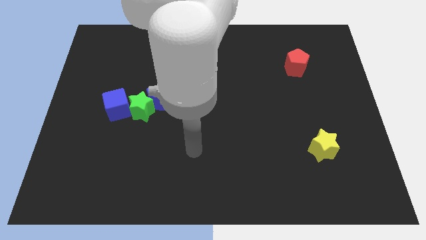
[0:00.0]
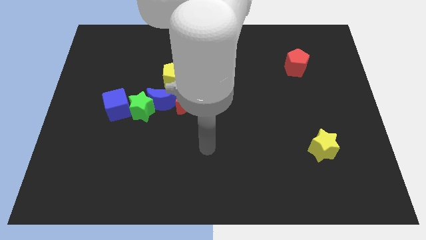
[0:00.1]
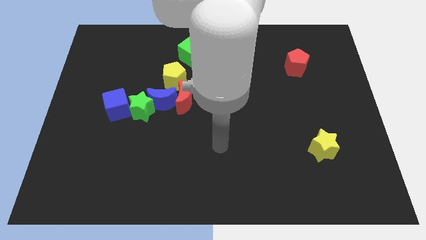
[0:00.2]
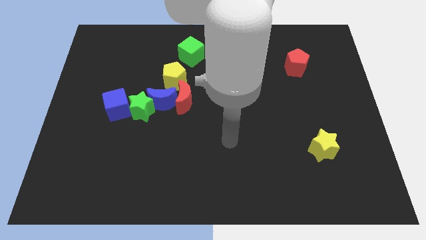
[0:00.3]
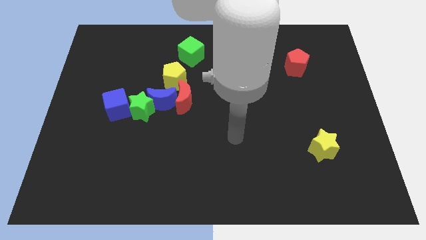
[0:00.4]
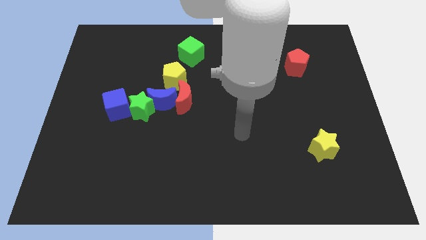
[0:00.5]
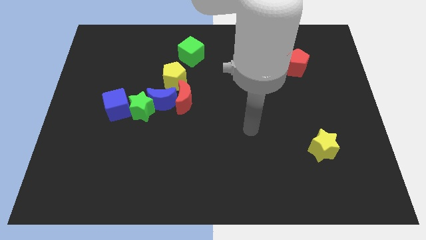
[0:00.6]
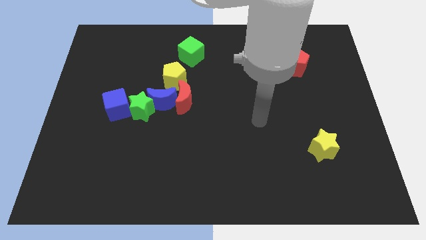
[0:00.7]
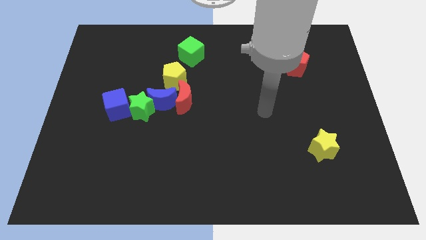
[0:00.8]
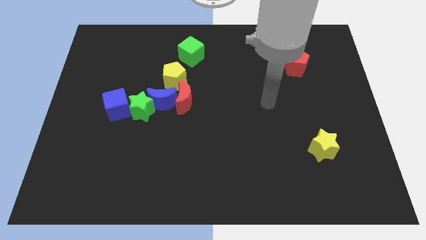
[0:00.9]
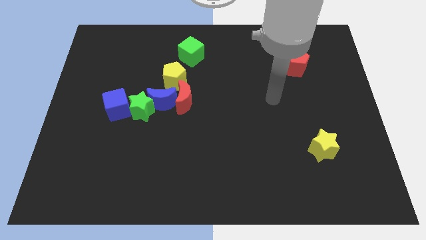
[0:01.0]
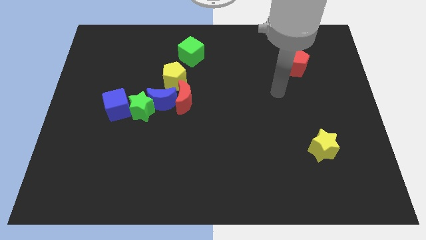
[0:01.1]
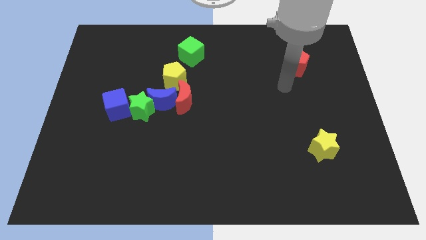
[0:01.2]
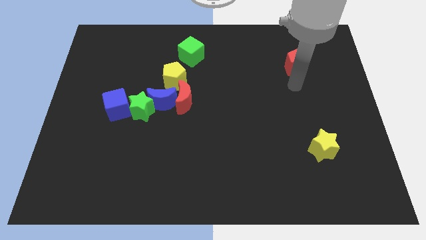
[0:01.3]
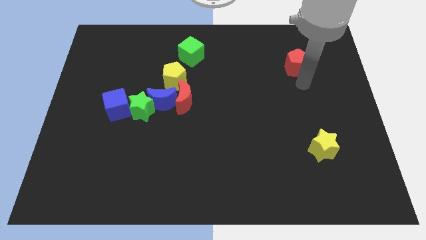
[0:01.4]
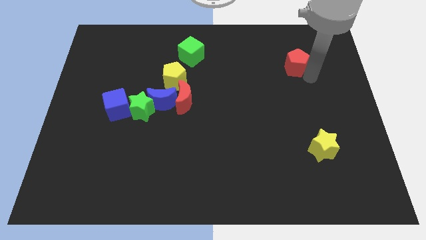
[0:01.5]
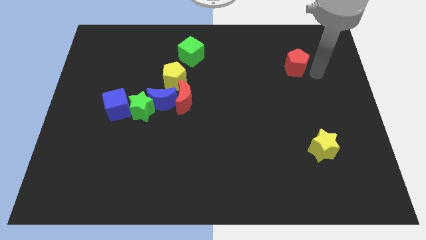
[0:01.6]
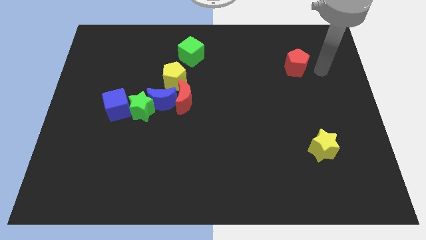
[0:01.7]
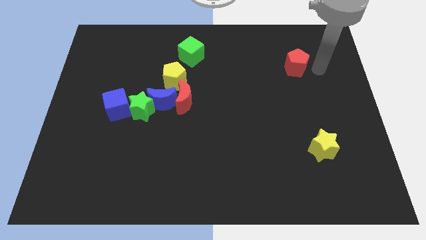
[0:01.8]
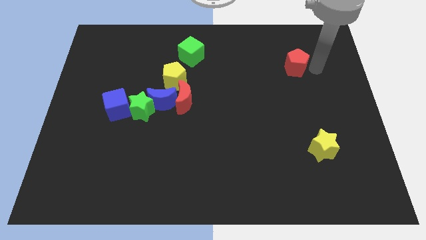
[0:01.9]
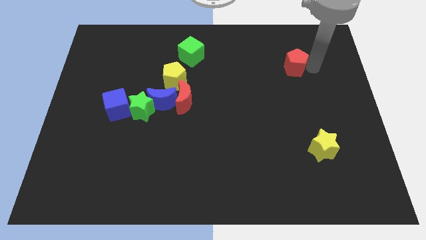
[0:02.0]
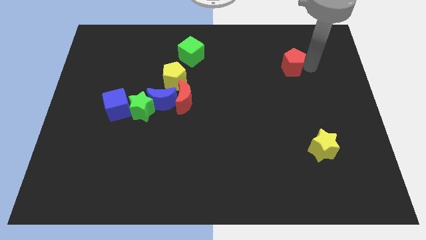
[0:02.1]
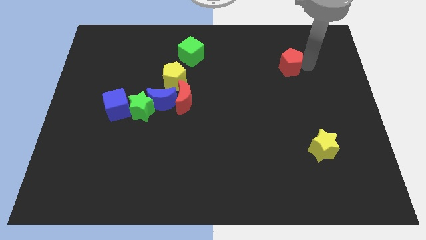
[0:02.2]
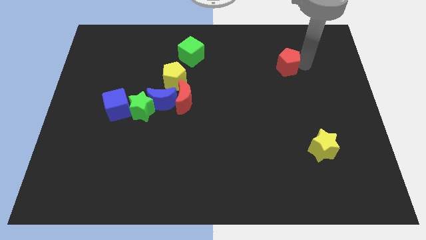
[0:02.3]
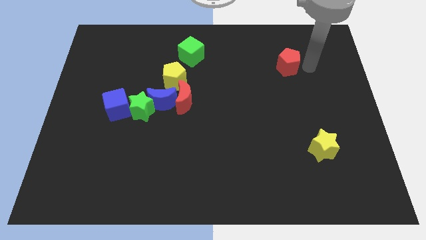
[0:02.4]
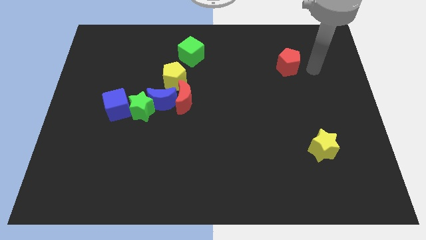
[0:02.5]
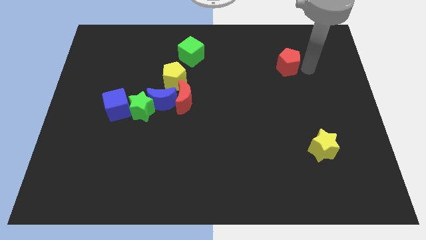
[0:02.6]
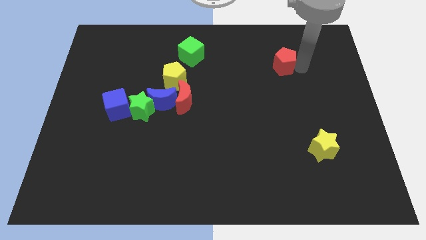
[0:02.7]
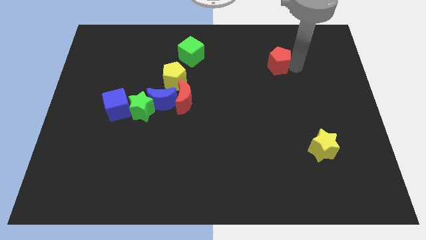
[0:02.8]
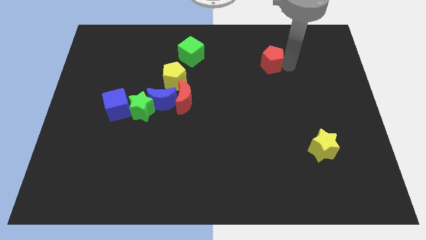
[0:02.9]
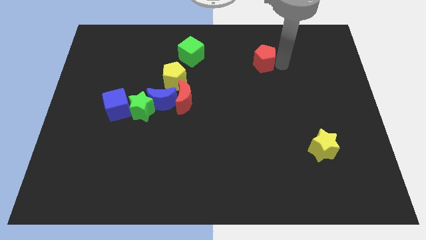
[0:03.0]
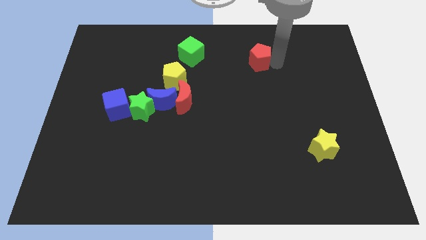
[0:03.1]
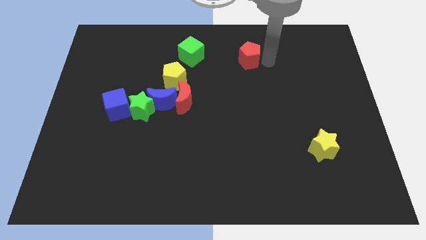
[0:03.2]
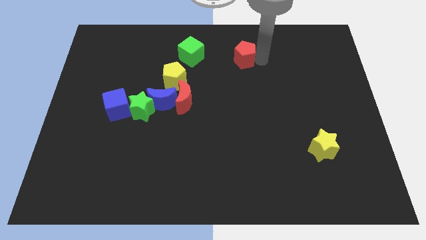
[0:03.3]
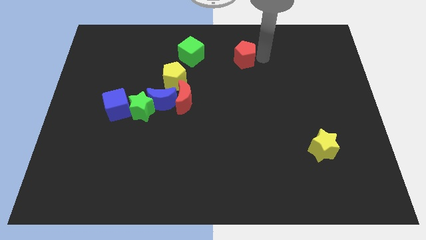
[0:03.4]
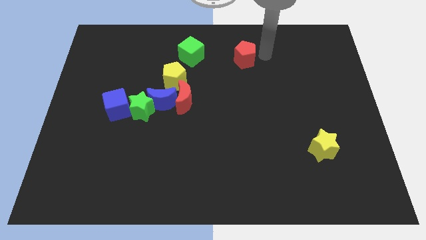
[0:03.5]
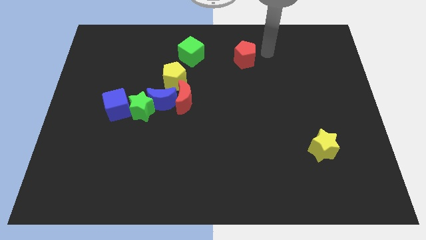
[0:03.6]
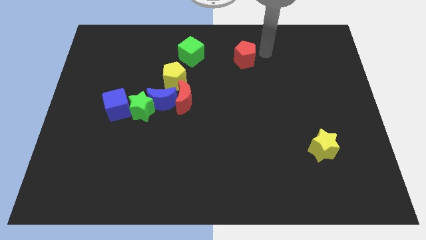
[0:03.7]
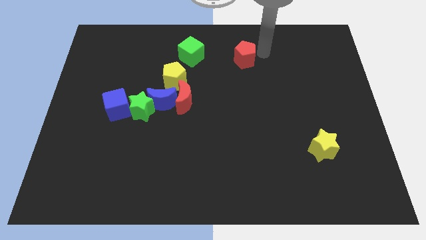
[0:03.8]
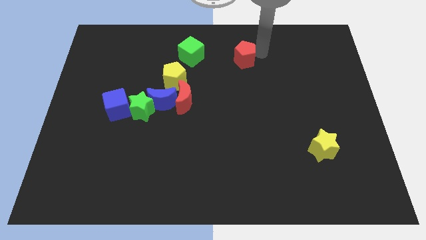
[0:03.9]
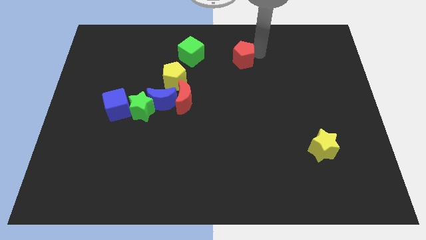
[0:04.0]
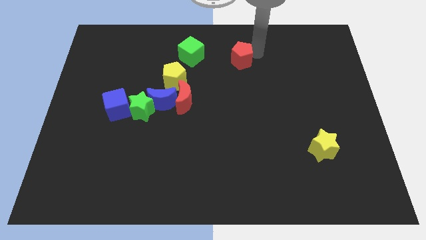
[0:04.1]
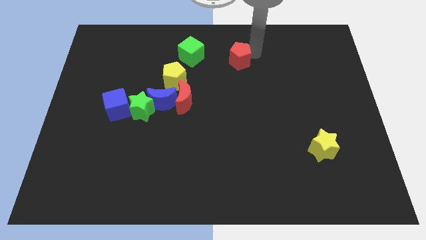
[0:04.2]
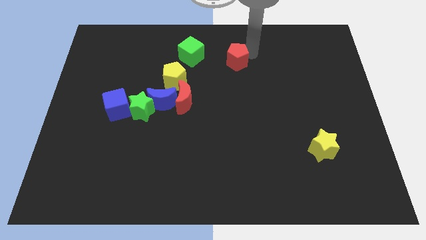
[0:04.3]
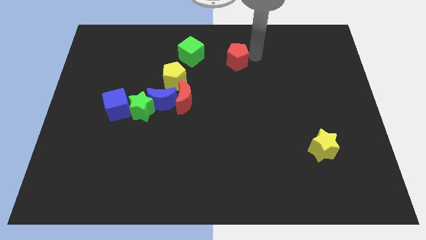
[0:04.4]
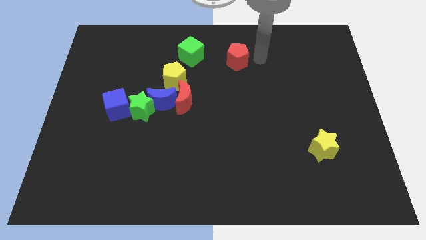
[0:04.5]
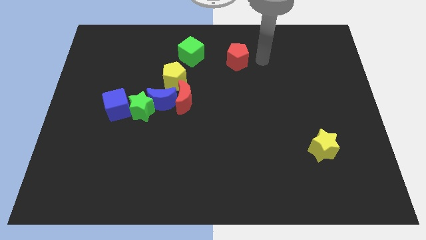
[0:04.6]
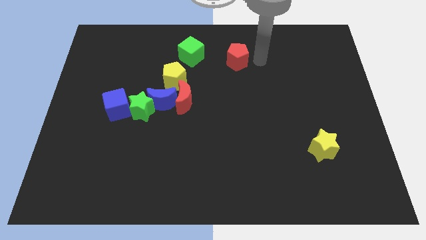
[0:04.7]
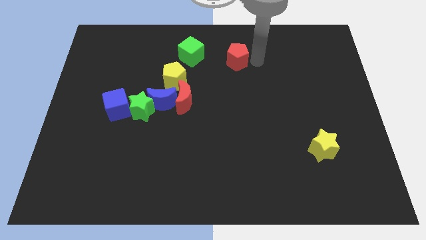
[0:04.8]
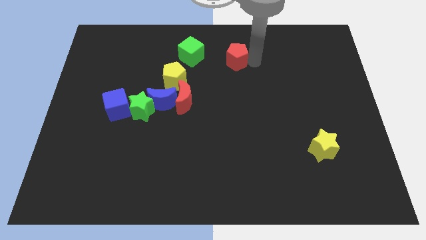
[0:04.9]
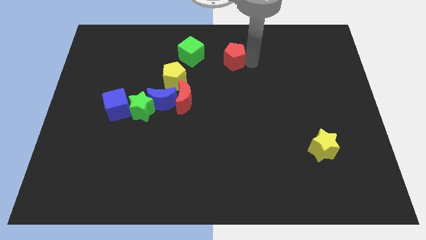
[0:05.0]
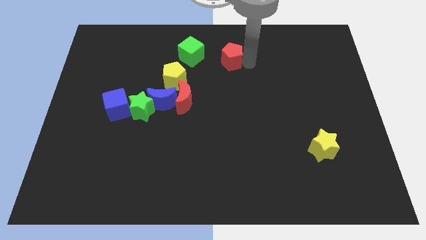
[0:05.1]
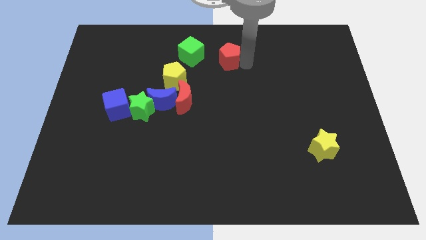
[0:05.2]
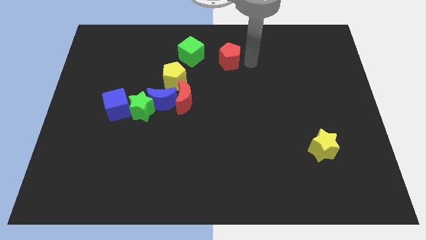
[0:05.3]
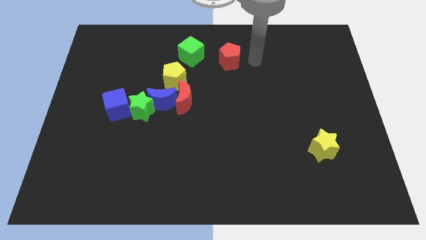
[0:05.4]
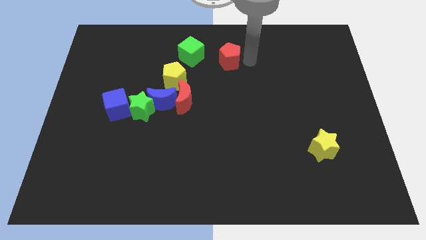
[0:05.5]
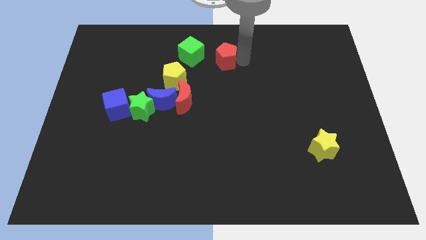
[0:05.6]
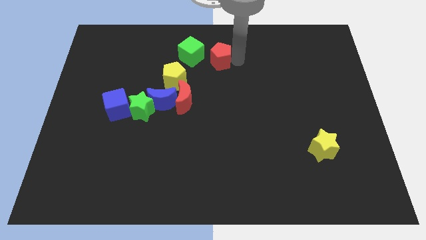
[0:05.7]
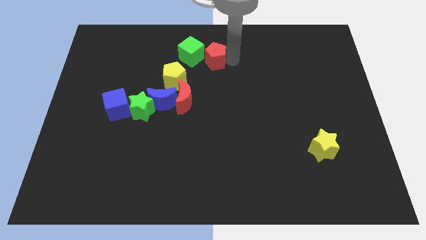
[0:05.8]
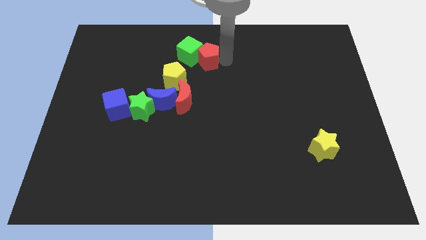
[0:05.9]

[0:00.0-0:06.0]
push the red pentagon to the green cube

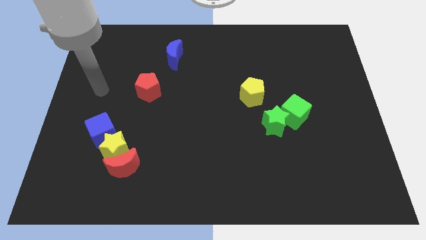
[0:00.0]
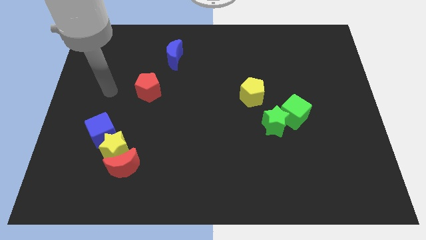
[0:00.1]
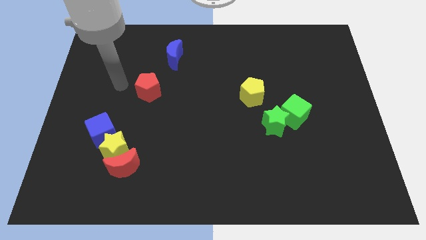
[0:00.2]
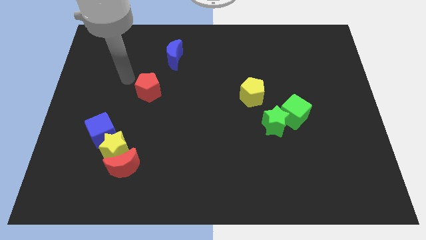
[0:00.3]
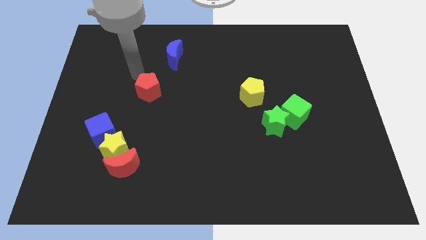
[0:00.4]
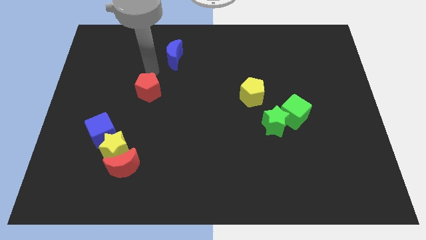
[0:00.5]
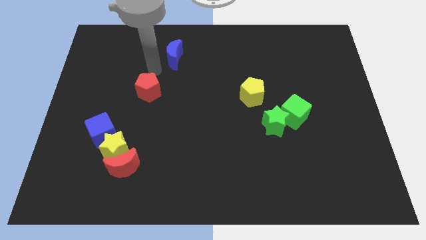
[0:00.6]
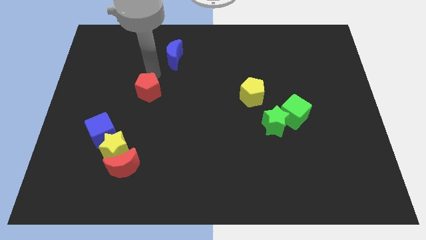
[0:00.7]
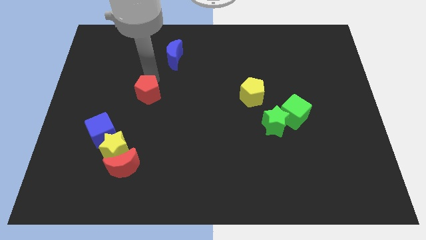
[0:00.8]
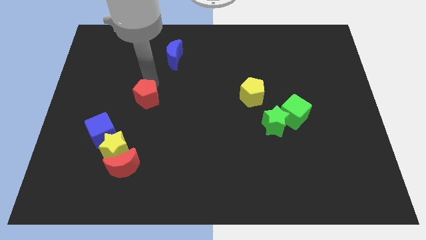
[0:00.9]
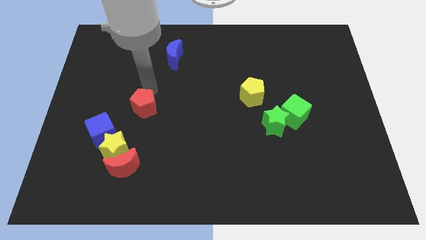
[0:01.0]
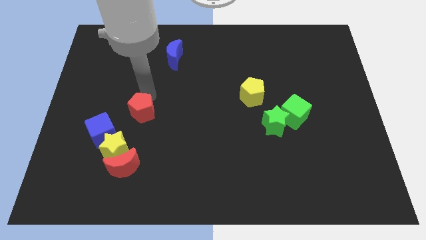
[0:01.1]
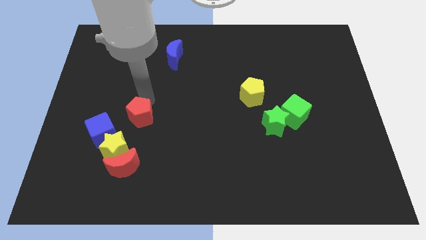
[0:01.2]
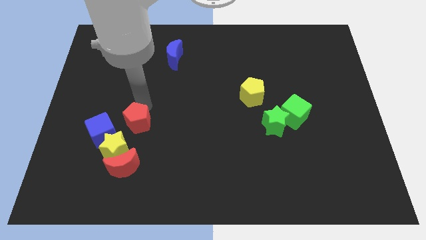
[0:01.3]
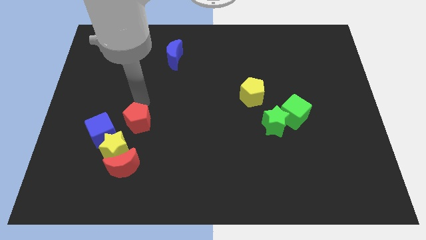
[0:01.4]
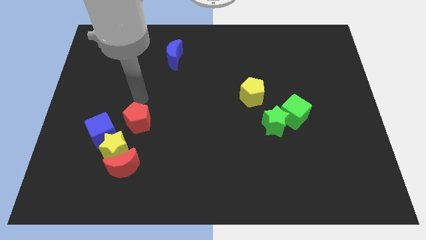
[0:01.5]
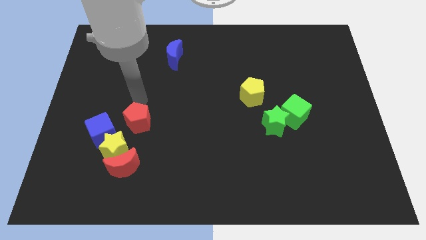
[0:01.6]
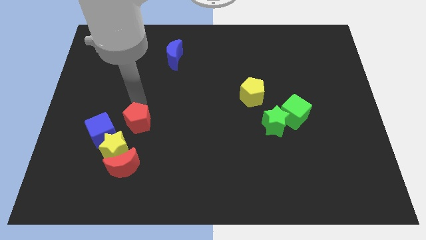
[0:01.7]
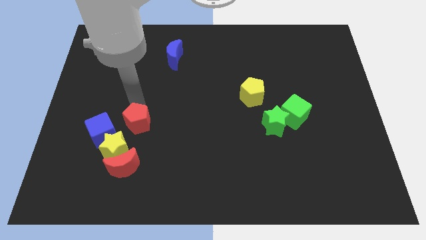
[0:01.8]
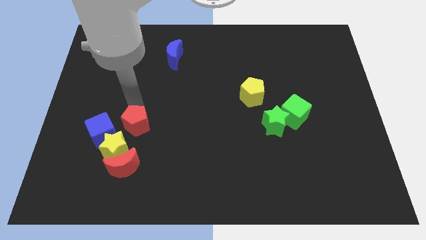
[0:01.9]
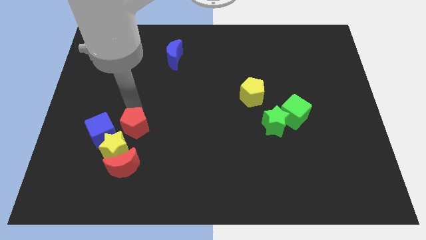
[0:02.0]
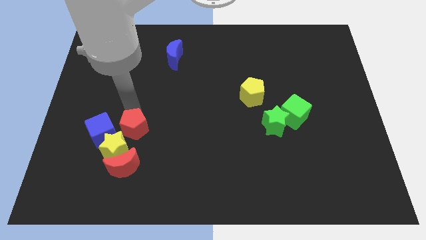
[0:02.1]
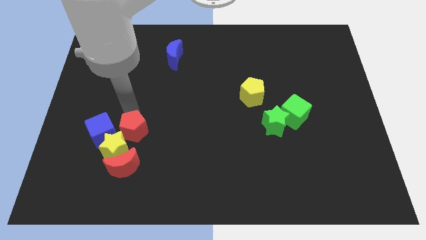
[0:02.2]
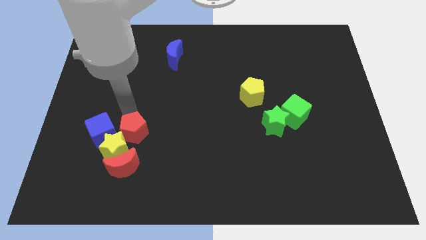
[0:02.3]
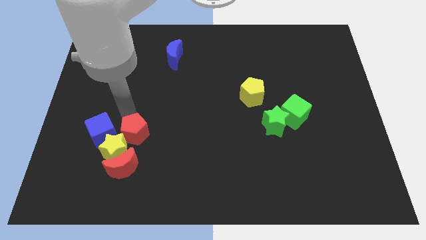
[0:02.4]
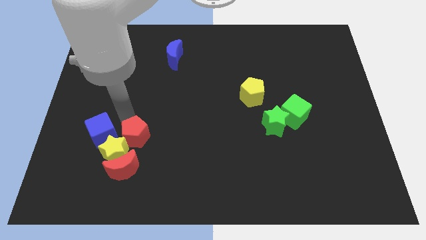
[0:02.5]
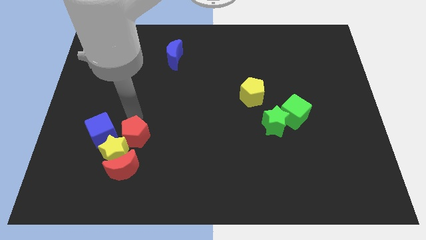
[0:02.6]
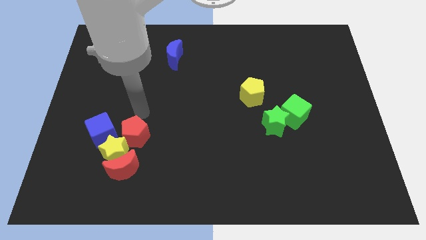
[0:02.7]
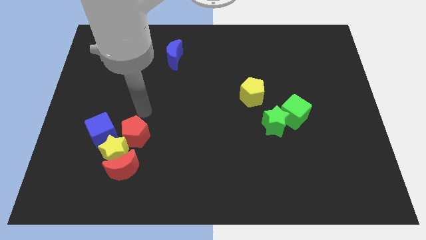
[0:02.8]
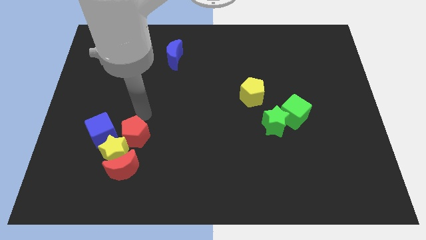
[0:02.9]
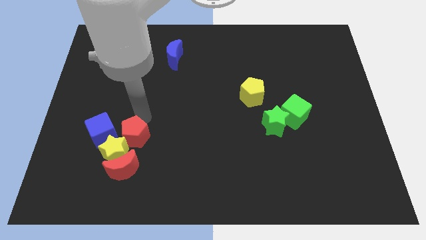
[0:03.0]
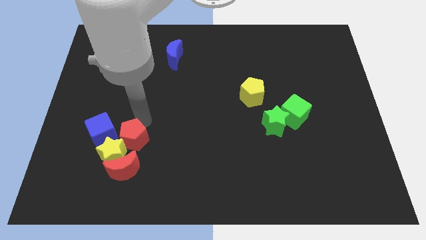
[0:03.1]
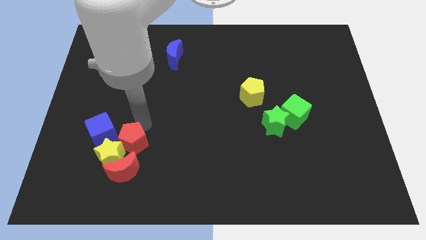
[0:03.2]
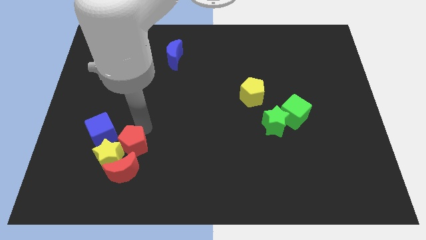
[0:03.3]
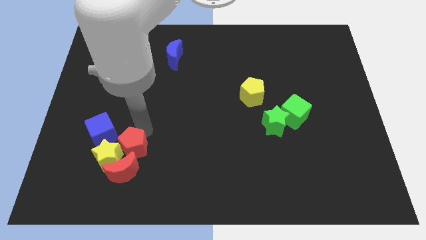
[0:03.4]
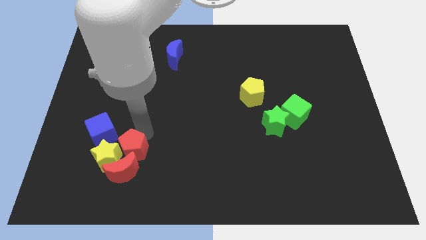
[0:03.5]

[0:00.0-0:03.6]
push the red pentagon to the red moon
